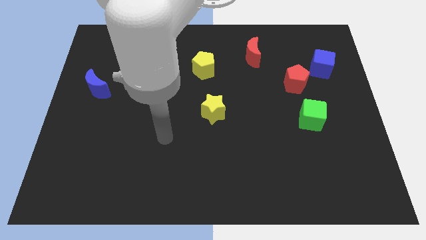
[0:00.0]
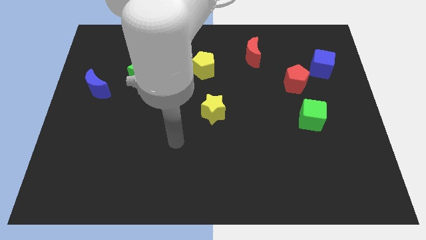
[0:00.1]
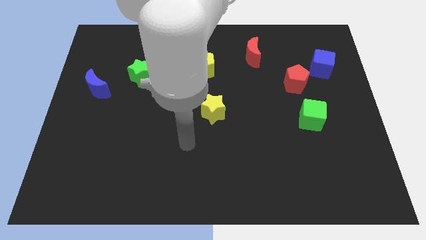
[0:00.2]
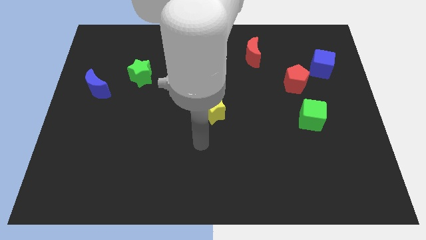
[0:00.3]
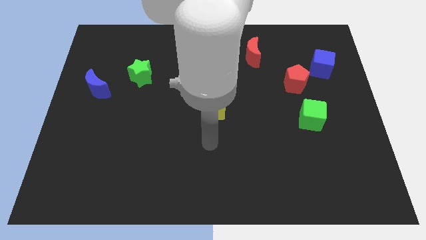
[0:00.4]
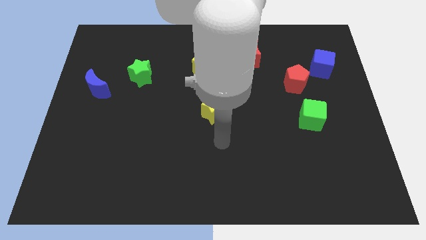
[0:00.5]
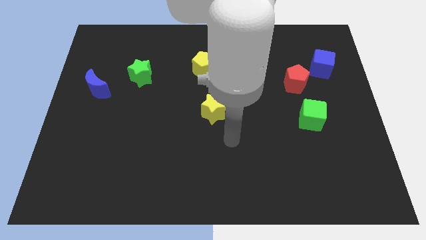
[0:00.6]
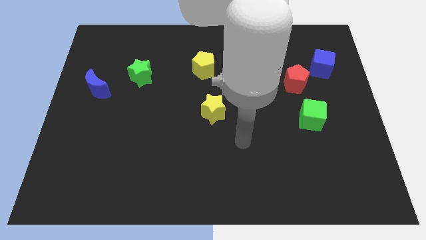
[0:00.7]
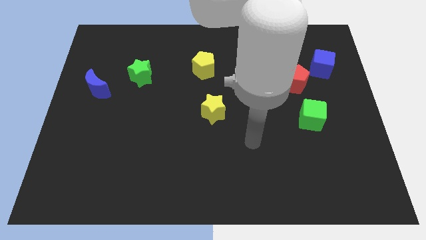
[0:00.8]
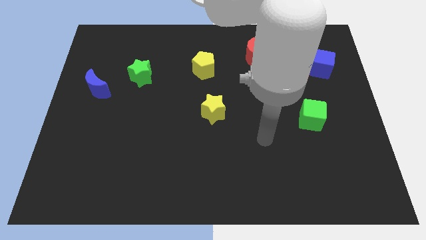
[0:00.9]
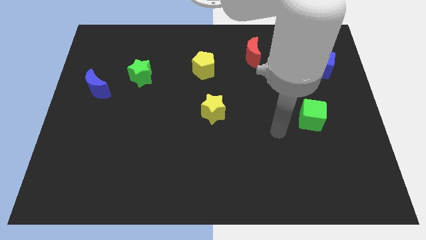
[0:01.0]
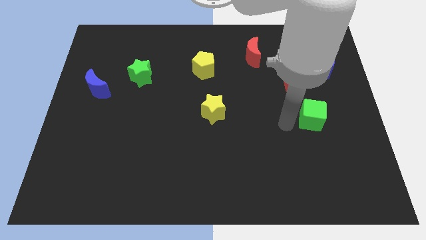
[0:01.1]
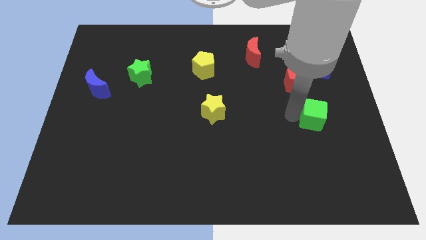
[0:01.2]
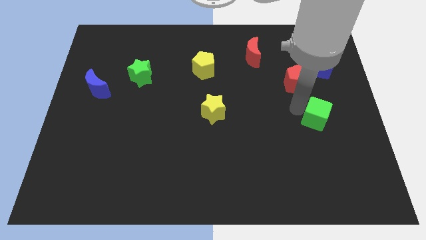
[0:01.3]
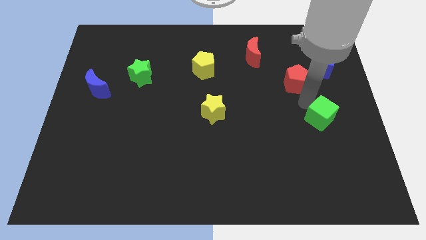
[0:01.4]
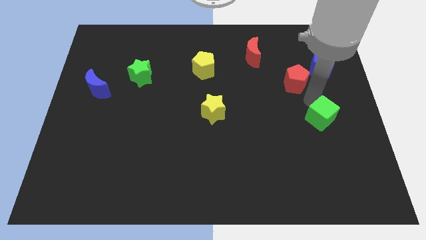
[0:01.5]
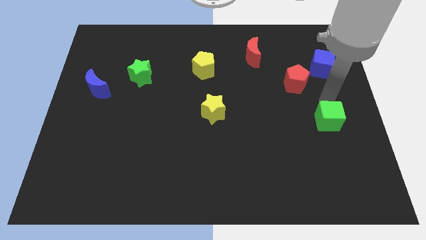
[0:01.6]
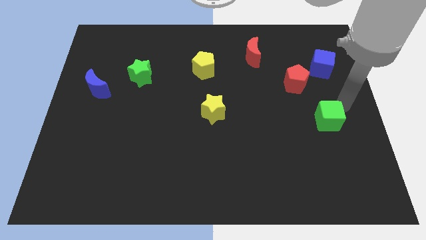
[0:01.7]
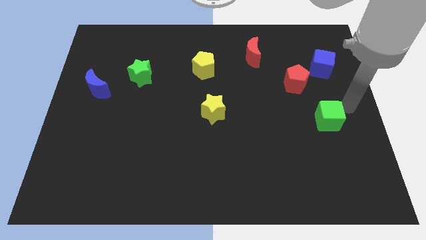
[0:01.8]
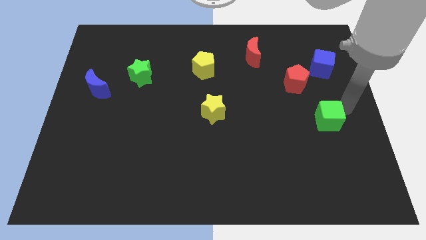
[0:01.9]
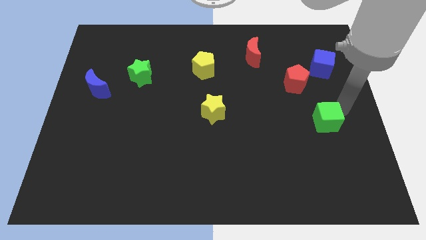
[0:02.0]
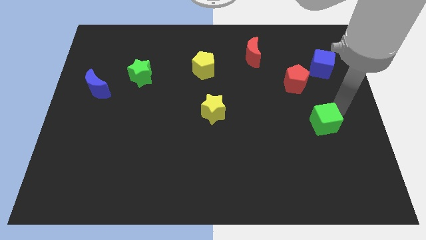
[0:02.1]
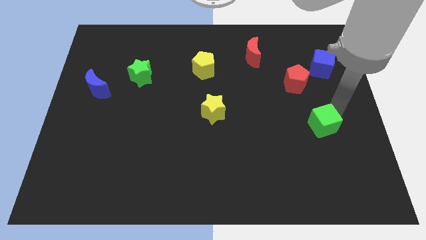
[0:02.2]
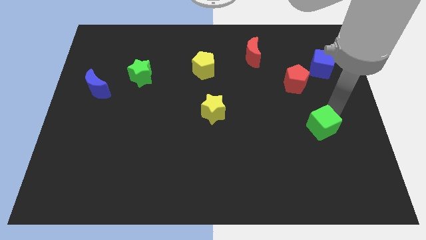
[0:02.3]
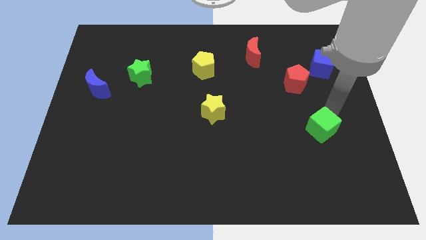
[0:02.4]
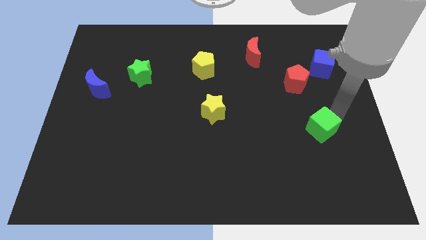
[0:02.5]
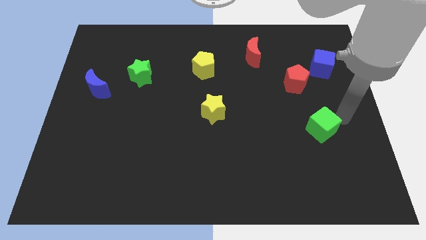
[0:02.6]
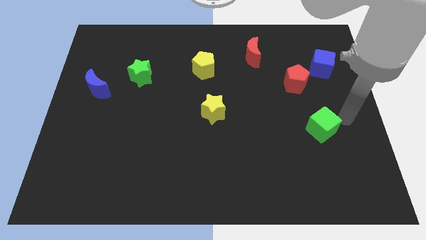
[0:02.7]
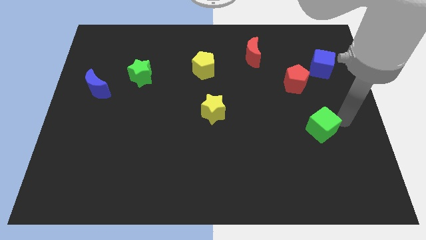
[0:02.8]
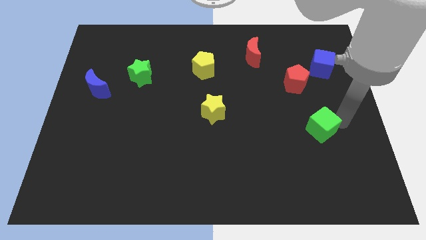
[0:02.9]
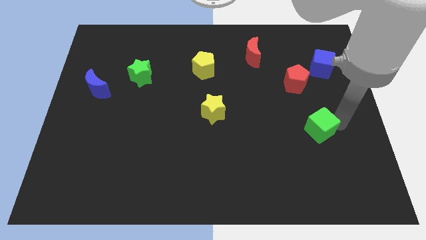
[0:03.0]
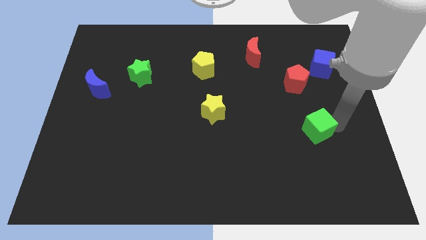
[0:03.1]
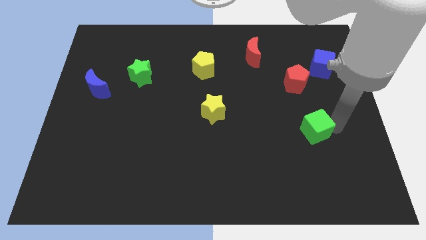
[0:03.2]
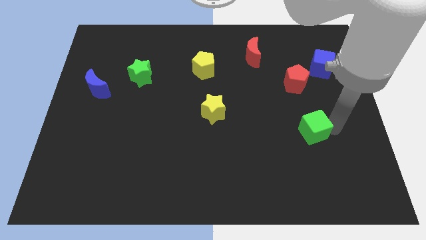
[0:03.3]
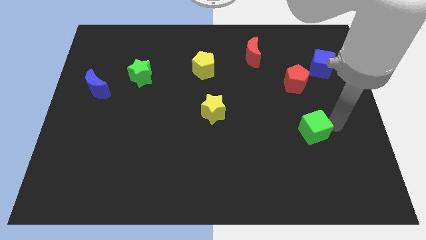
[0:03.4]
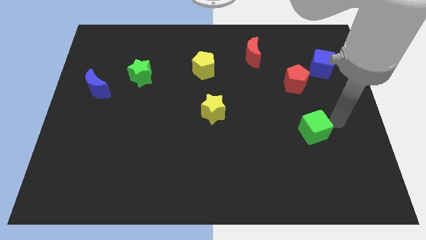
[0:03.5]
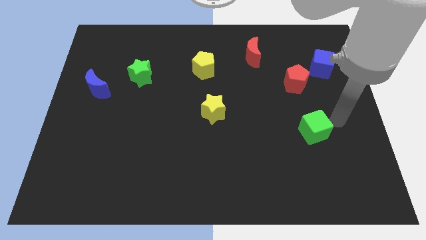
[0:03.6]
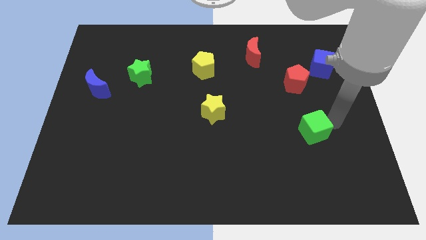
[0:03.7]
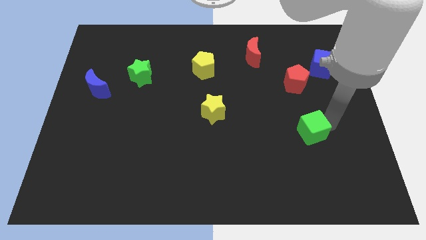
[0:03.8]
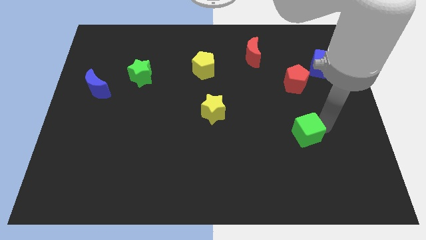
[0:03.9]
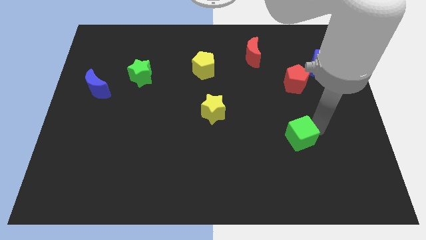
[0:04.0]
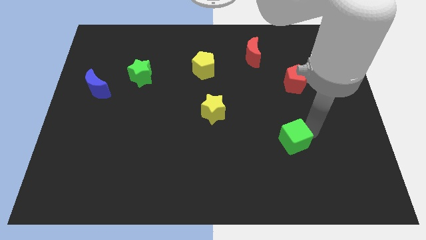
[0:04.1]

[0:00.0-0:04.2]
slightly move the green cube down and left

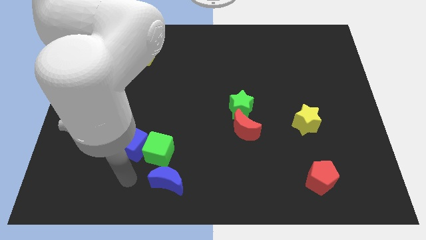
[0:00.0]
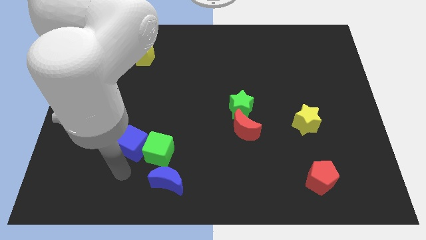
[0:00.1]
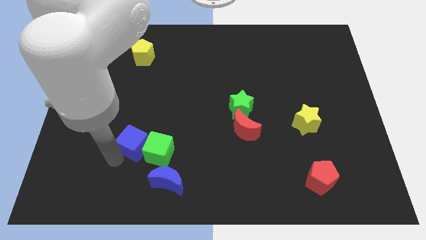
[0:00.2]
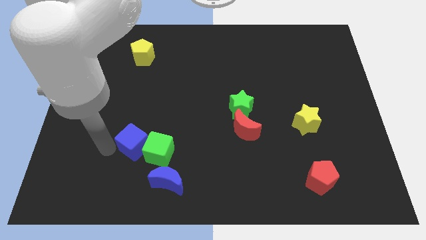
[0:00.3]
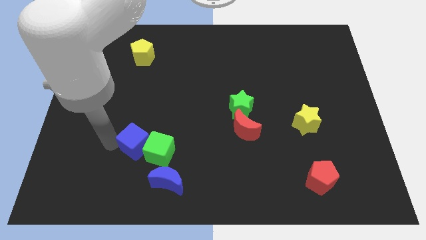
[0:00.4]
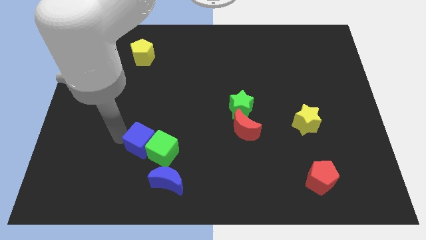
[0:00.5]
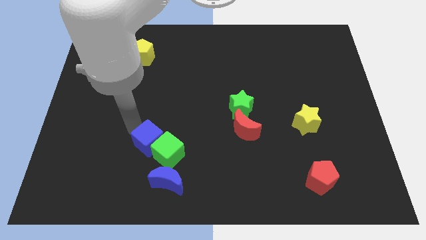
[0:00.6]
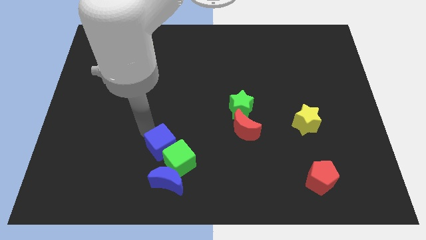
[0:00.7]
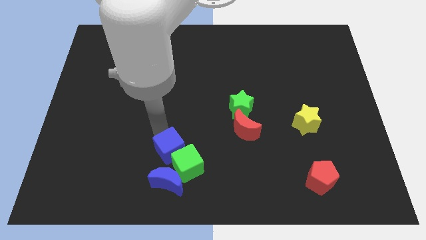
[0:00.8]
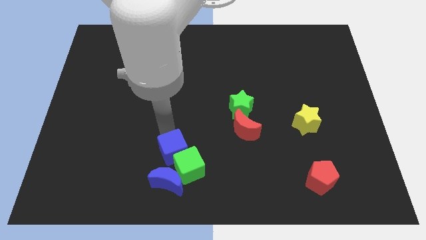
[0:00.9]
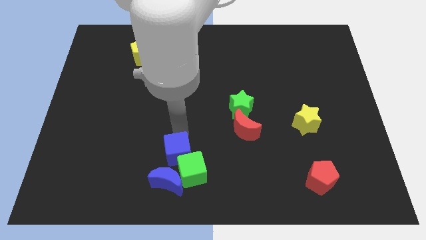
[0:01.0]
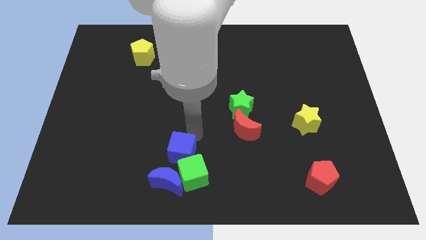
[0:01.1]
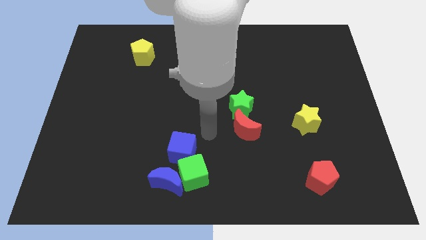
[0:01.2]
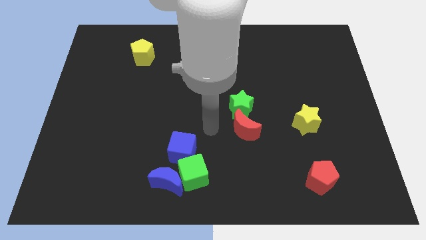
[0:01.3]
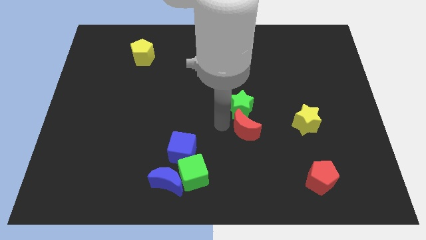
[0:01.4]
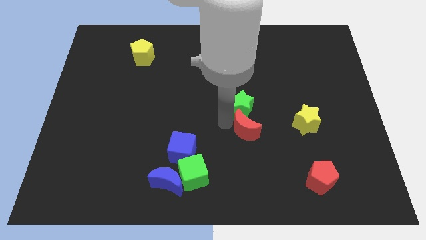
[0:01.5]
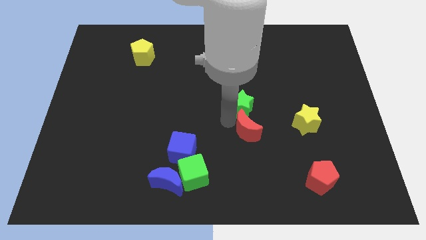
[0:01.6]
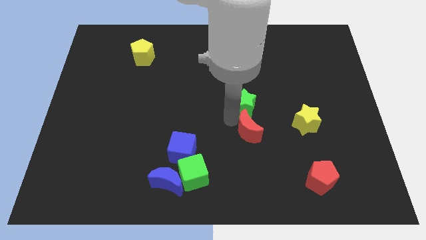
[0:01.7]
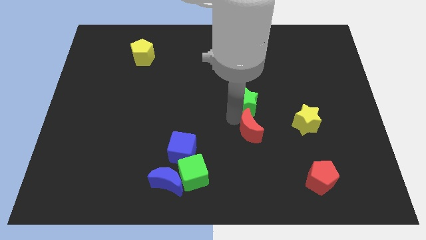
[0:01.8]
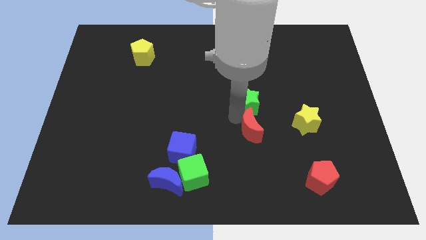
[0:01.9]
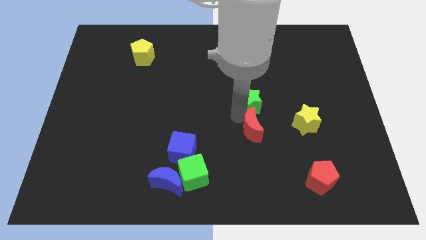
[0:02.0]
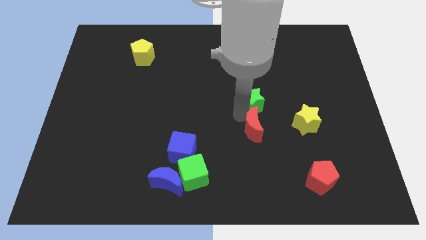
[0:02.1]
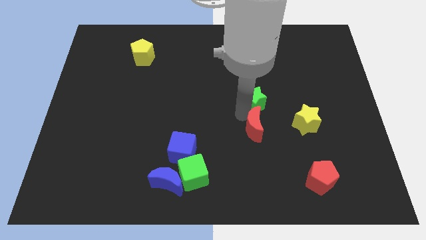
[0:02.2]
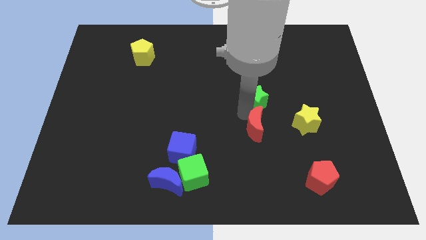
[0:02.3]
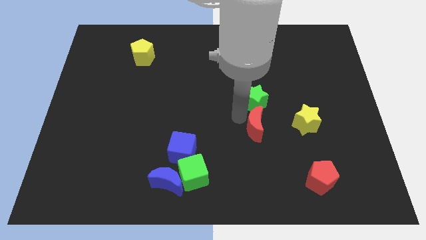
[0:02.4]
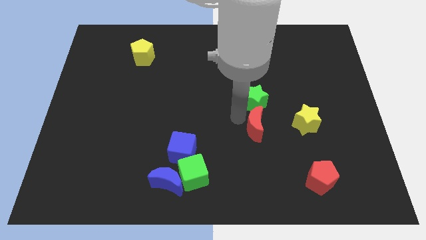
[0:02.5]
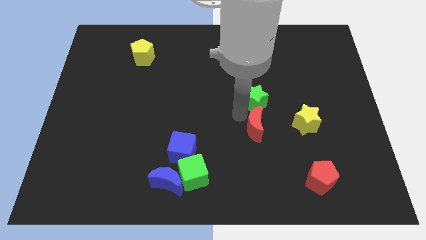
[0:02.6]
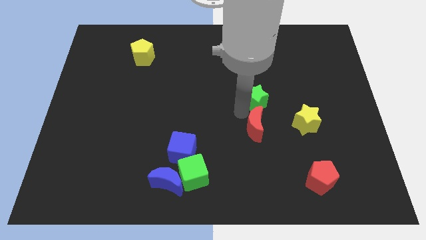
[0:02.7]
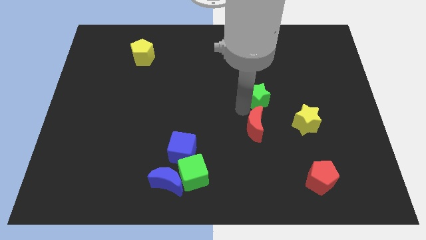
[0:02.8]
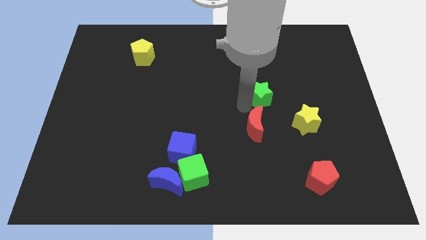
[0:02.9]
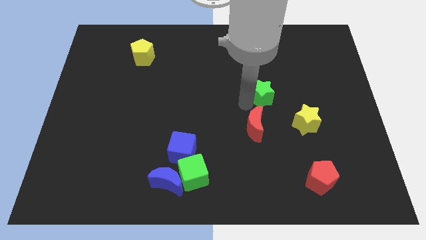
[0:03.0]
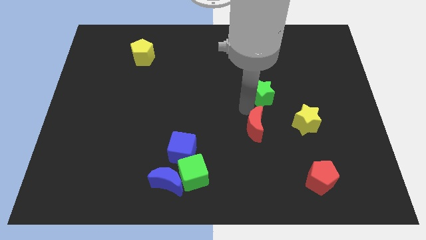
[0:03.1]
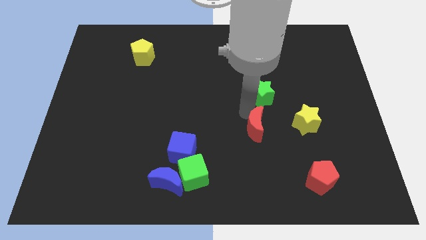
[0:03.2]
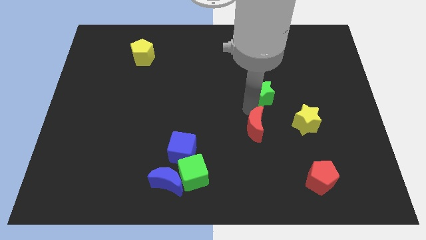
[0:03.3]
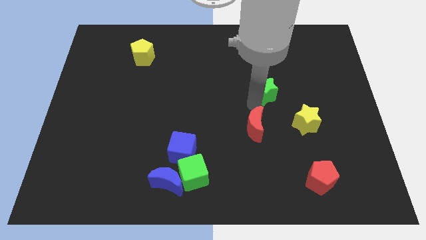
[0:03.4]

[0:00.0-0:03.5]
push the green star upwards and right a little bit

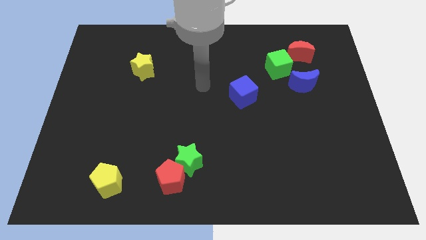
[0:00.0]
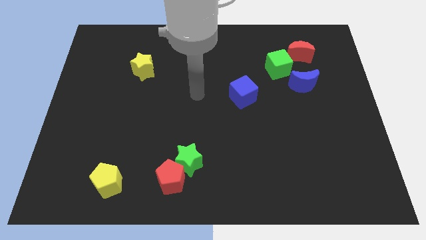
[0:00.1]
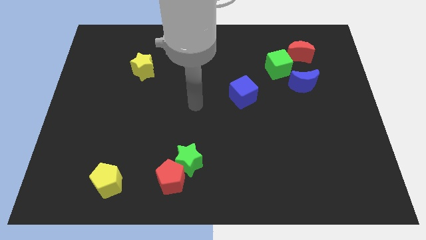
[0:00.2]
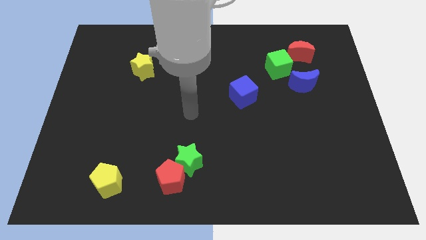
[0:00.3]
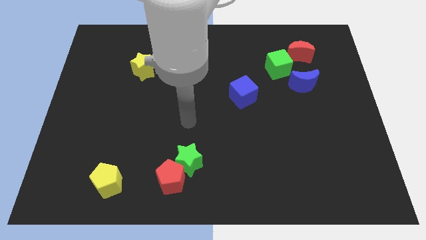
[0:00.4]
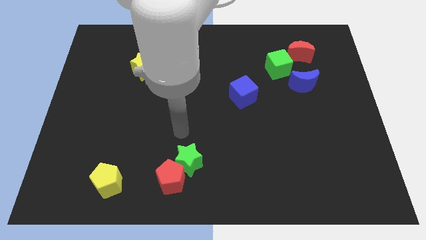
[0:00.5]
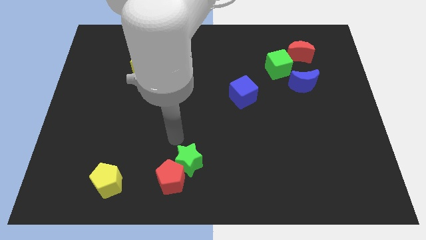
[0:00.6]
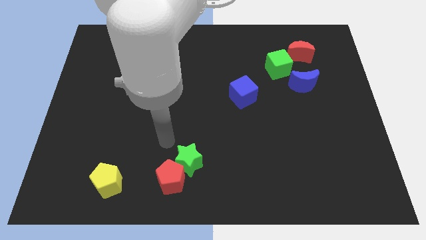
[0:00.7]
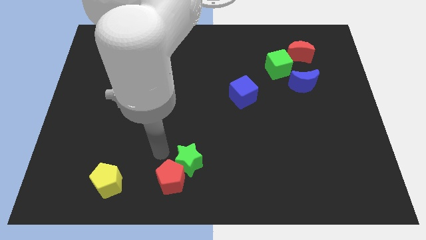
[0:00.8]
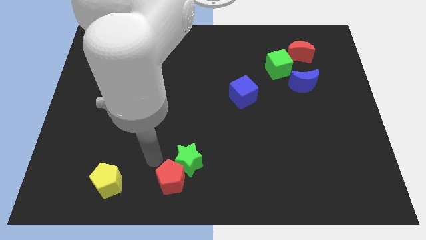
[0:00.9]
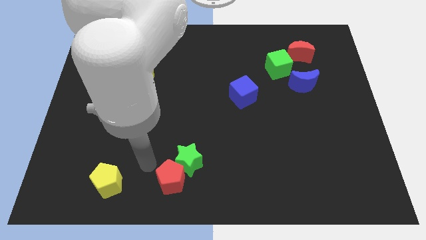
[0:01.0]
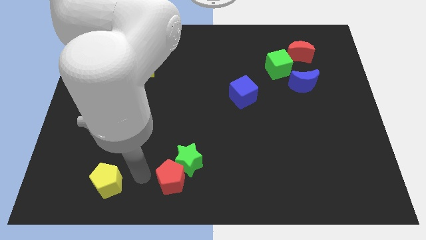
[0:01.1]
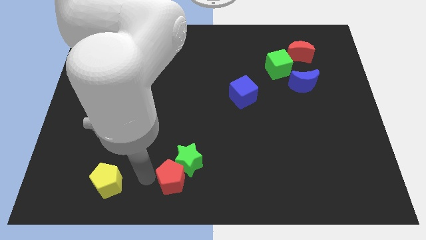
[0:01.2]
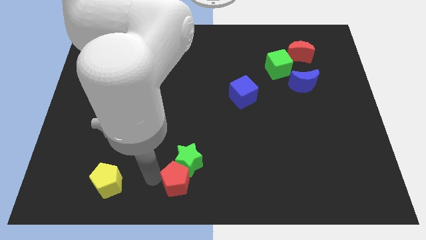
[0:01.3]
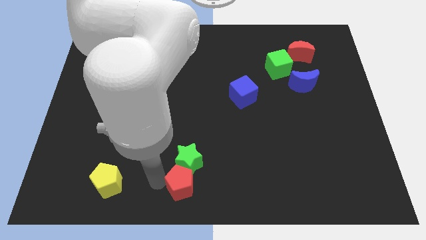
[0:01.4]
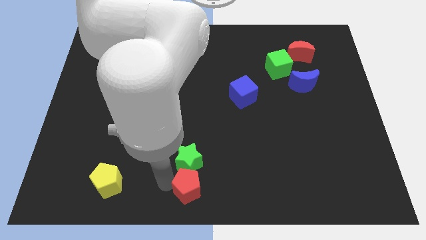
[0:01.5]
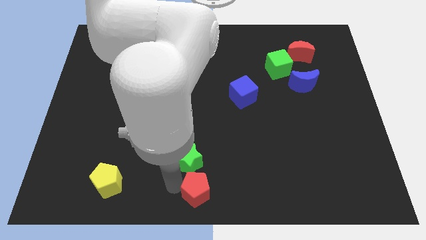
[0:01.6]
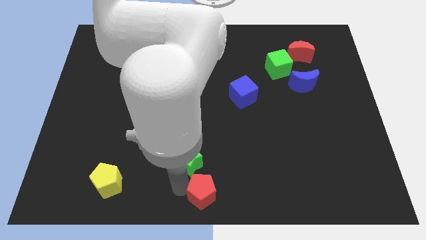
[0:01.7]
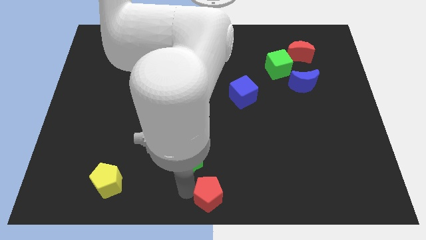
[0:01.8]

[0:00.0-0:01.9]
slide the red pentagon a bit to the right
